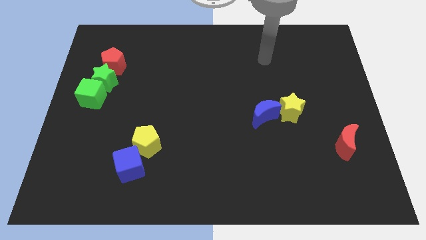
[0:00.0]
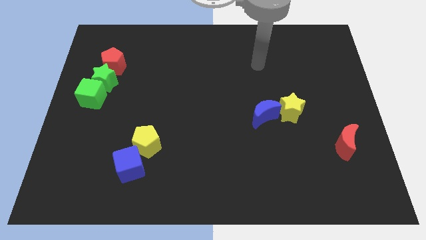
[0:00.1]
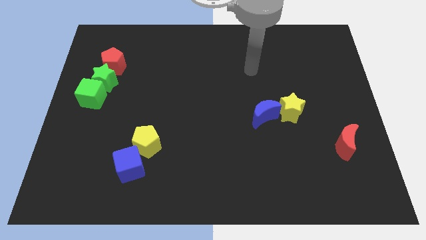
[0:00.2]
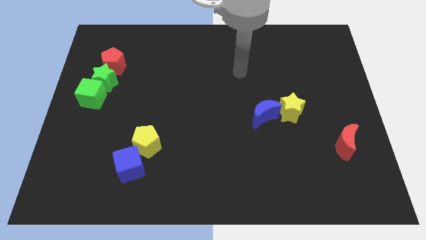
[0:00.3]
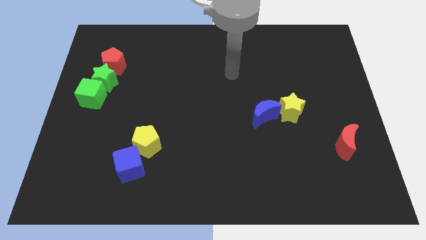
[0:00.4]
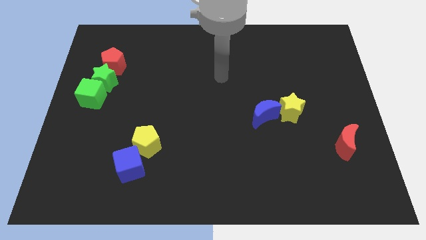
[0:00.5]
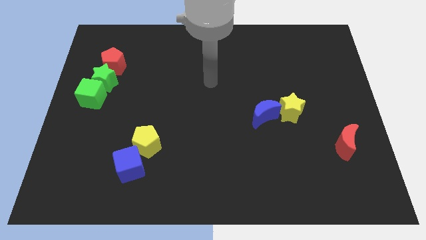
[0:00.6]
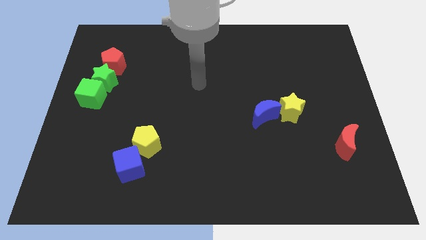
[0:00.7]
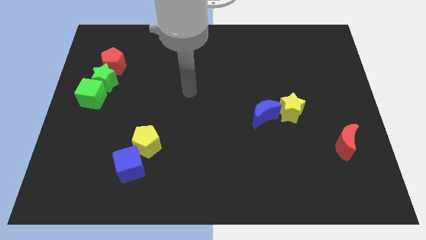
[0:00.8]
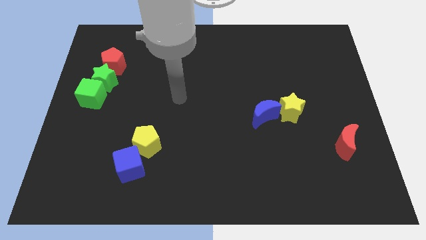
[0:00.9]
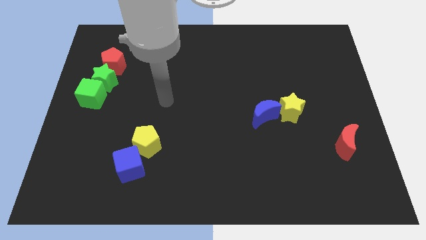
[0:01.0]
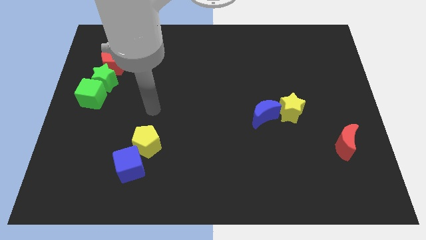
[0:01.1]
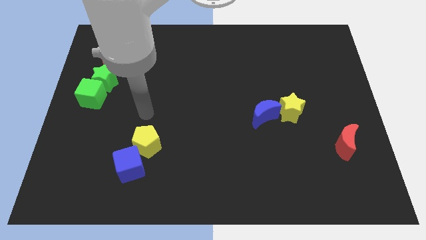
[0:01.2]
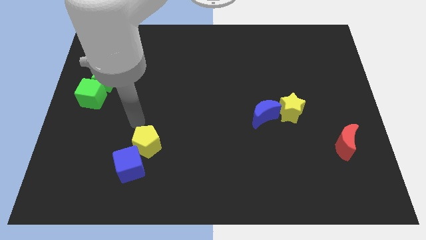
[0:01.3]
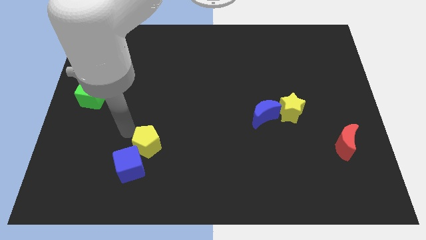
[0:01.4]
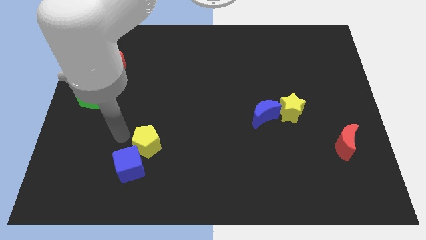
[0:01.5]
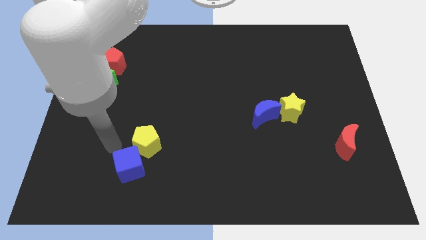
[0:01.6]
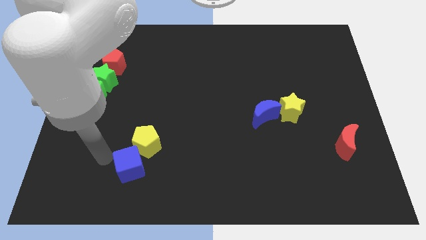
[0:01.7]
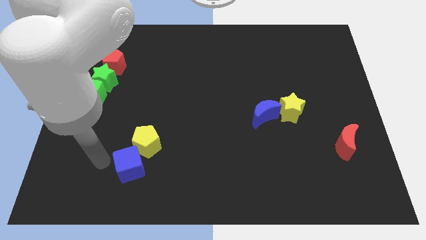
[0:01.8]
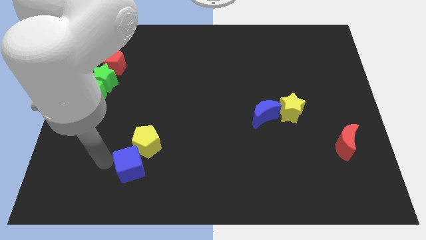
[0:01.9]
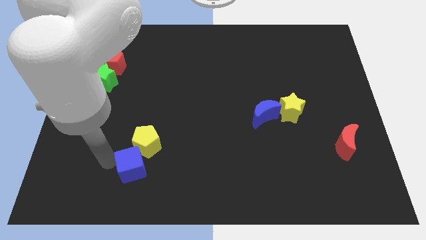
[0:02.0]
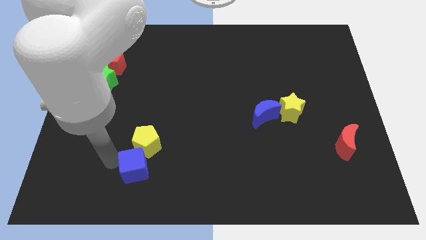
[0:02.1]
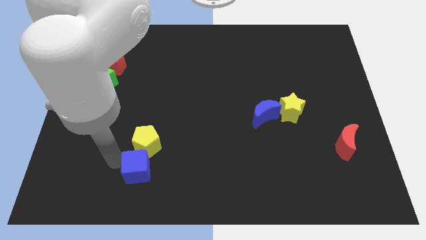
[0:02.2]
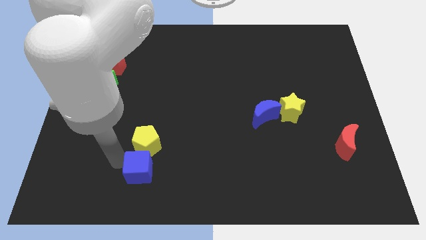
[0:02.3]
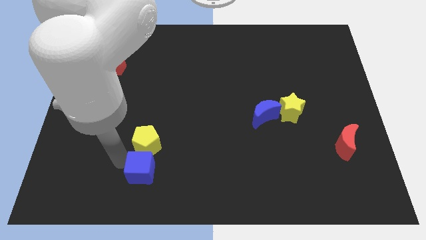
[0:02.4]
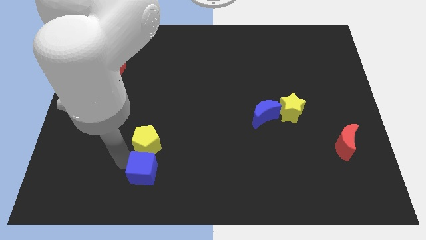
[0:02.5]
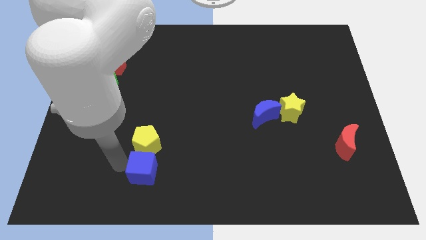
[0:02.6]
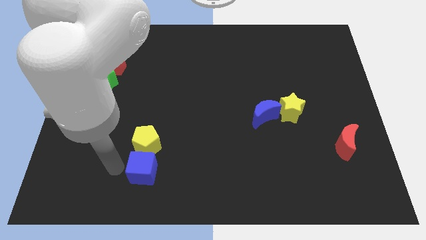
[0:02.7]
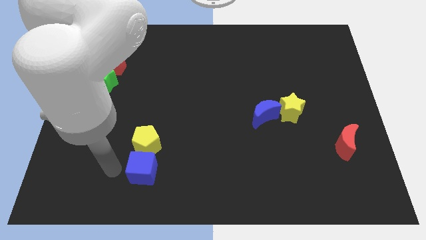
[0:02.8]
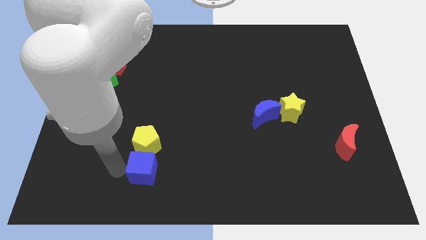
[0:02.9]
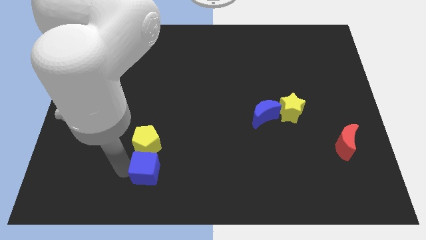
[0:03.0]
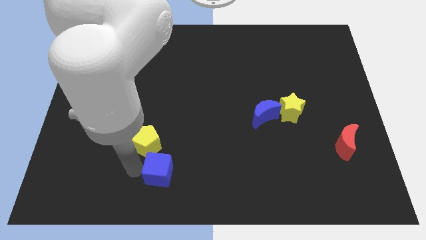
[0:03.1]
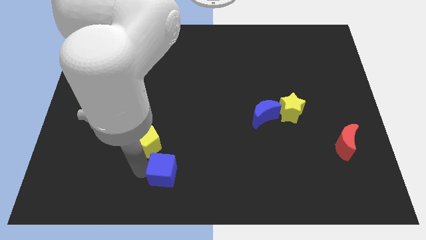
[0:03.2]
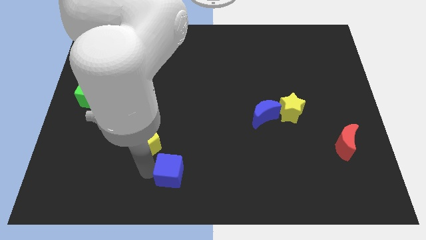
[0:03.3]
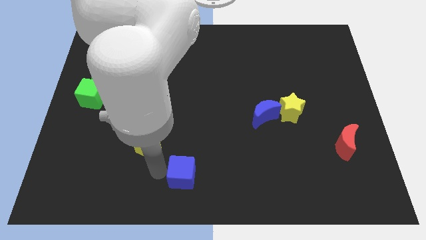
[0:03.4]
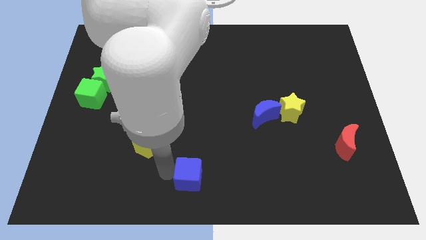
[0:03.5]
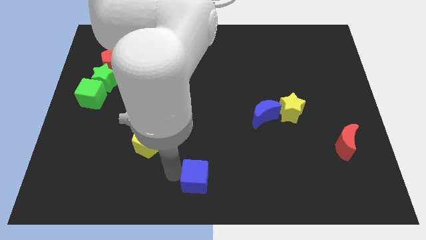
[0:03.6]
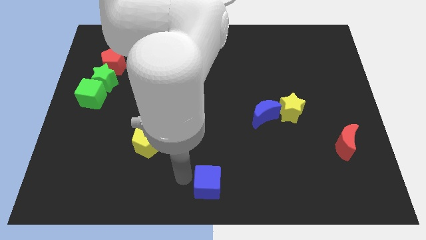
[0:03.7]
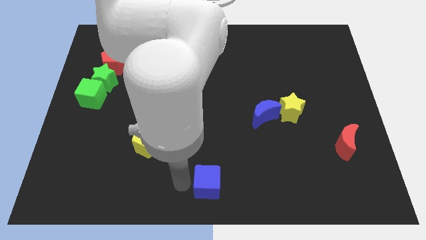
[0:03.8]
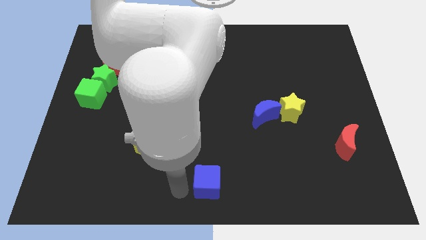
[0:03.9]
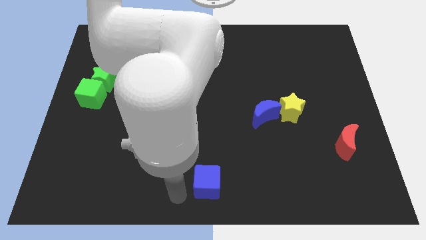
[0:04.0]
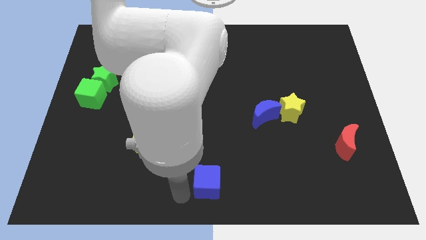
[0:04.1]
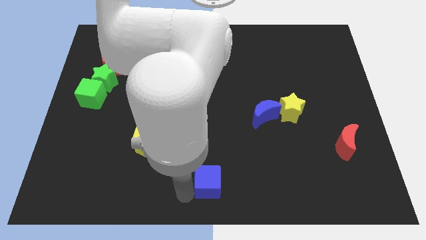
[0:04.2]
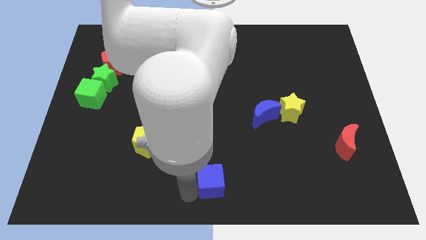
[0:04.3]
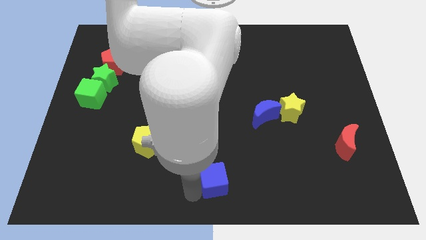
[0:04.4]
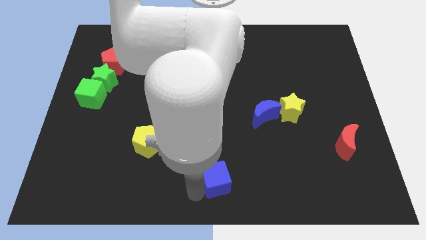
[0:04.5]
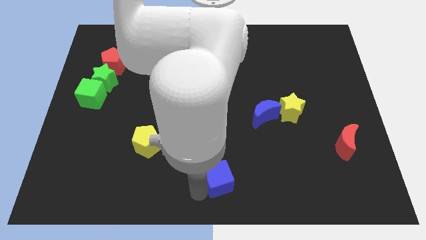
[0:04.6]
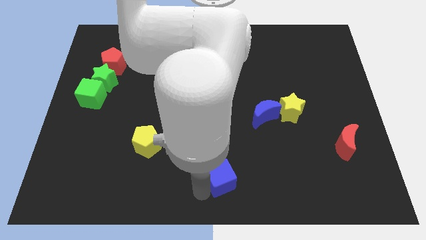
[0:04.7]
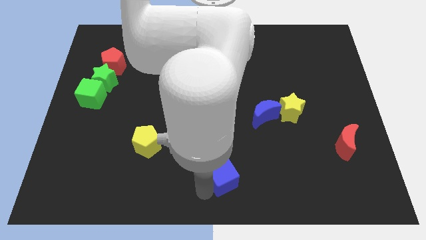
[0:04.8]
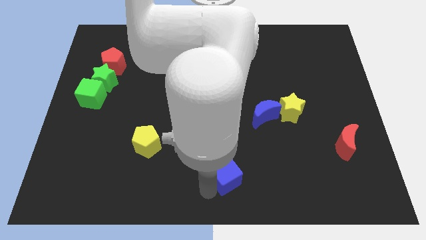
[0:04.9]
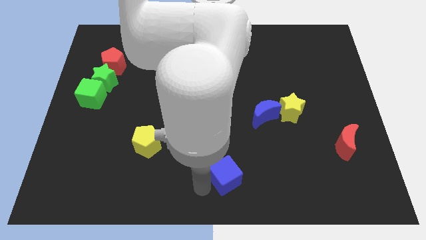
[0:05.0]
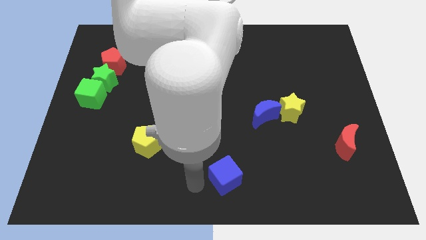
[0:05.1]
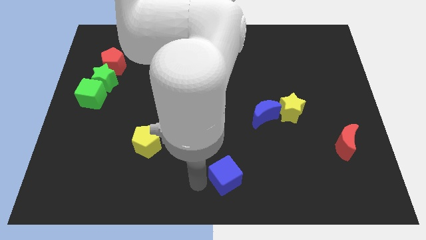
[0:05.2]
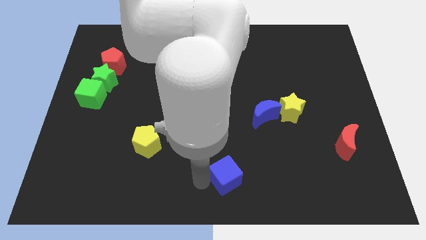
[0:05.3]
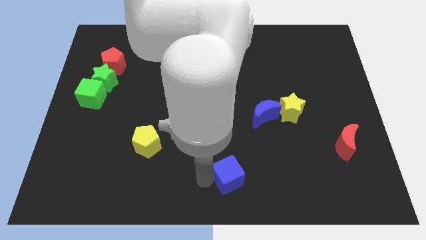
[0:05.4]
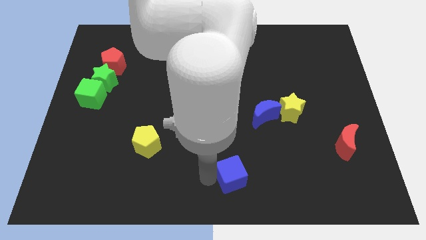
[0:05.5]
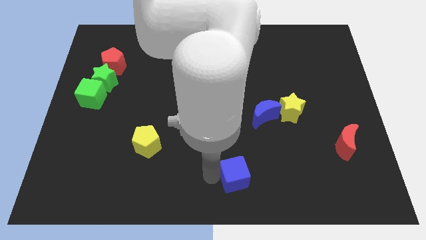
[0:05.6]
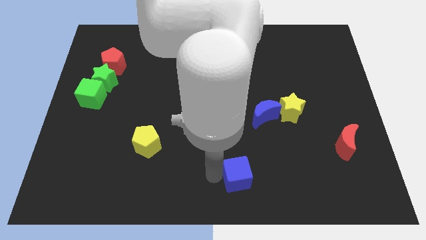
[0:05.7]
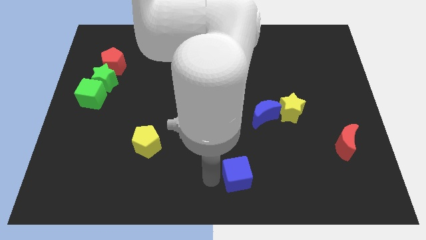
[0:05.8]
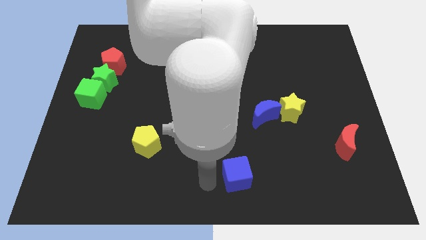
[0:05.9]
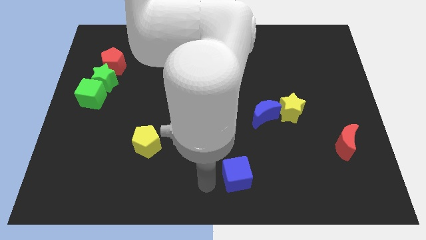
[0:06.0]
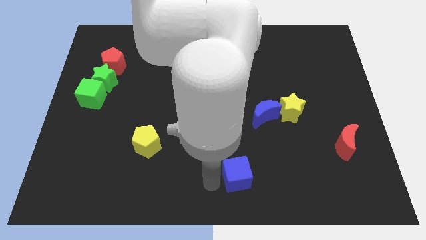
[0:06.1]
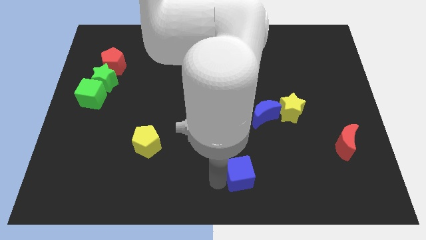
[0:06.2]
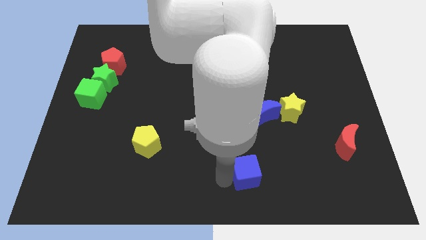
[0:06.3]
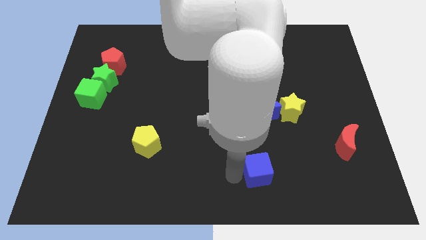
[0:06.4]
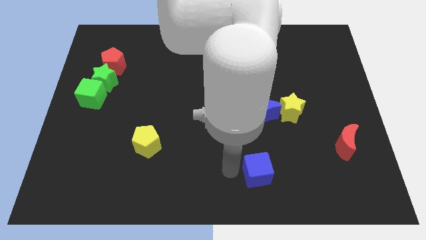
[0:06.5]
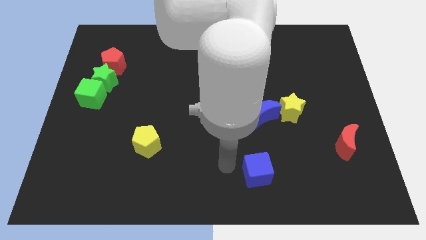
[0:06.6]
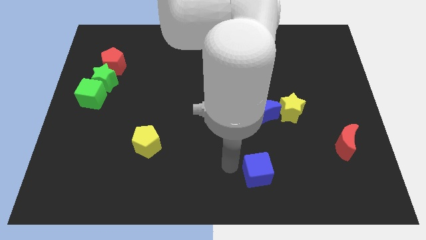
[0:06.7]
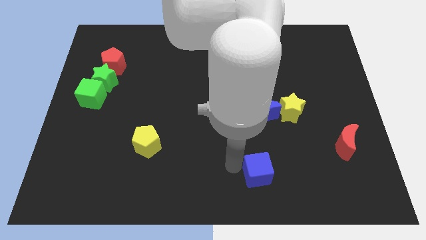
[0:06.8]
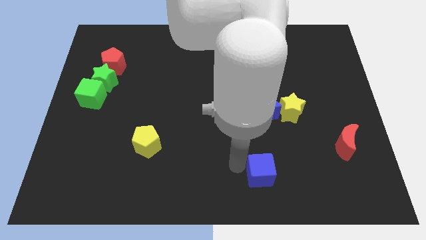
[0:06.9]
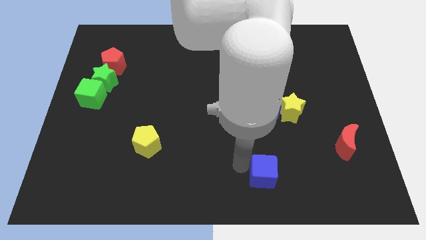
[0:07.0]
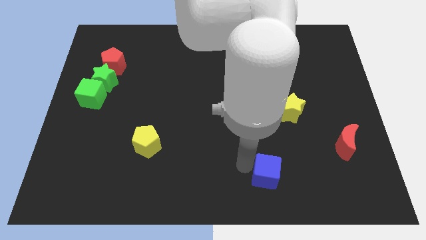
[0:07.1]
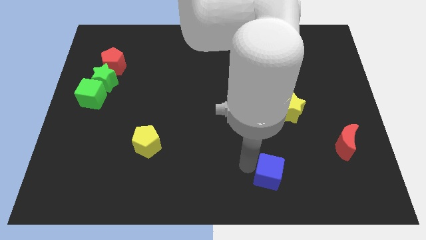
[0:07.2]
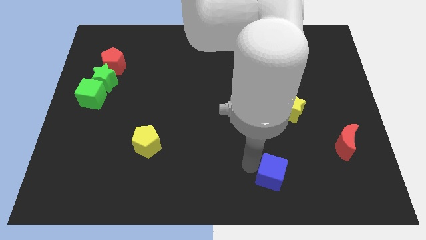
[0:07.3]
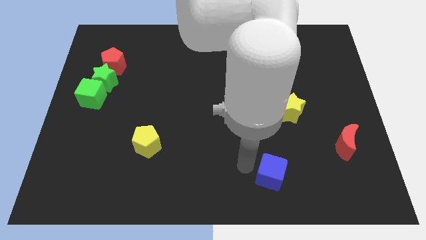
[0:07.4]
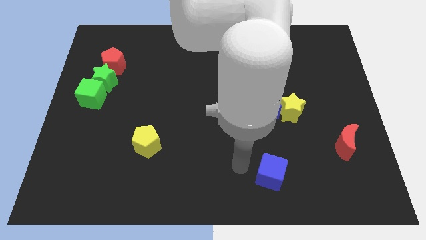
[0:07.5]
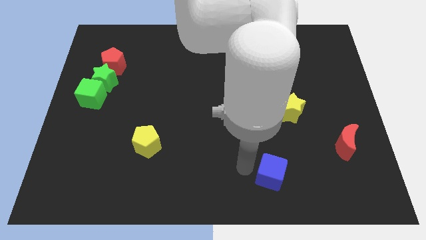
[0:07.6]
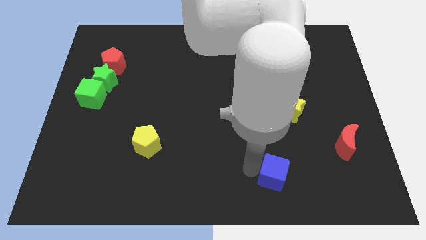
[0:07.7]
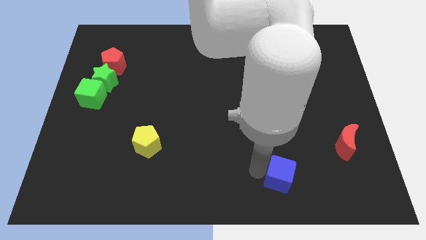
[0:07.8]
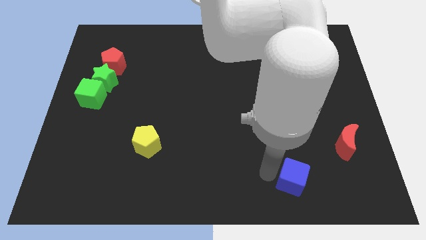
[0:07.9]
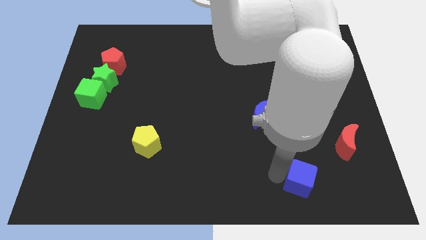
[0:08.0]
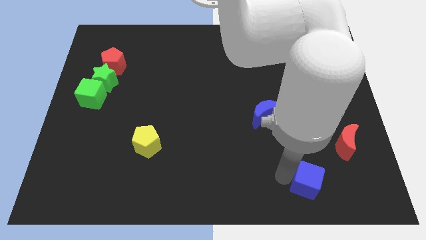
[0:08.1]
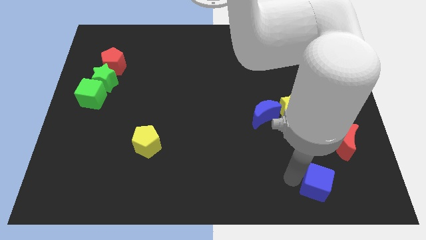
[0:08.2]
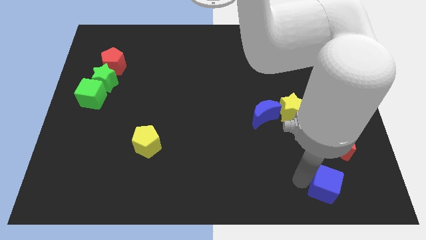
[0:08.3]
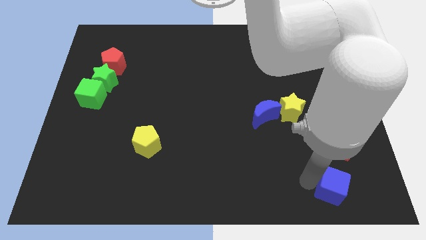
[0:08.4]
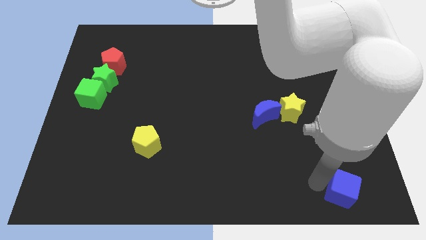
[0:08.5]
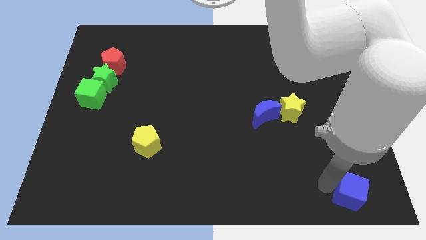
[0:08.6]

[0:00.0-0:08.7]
put the blue cube to the bottom right of the board
